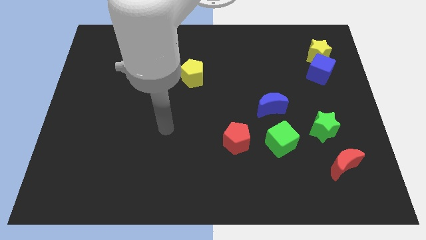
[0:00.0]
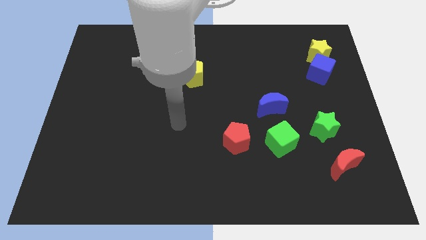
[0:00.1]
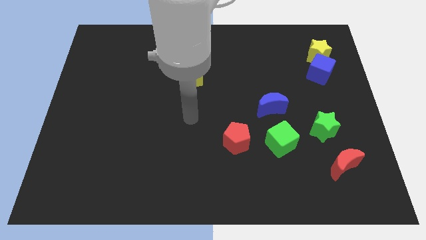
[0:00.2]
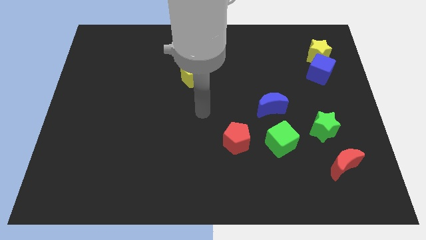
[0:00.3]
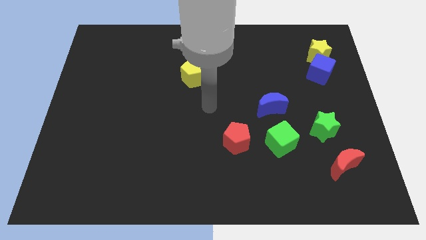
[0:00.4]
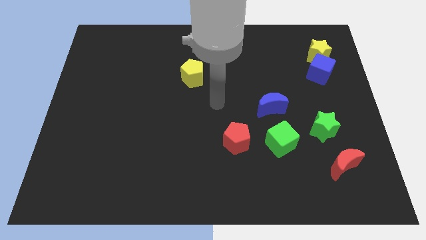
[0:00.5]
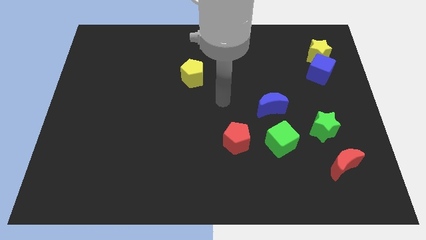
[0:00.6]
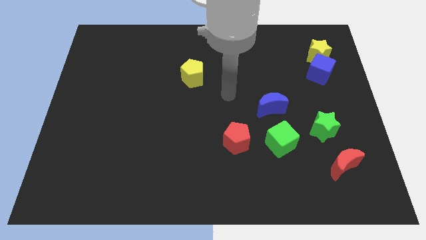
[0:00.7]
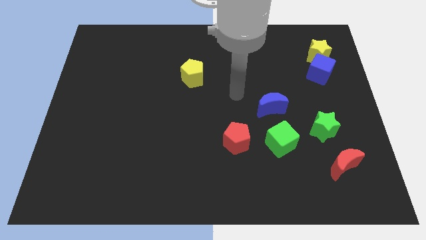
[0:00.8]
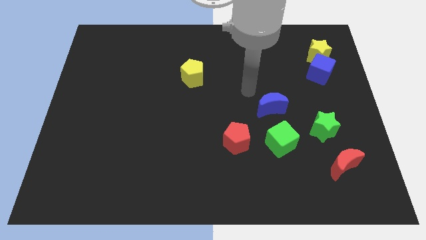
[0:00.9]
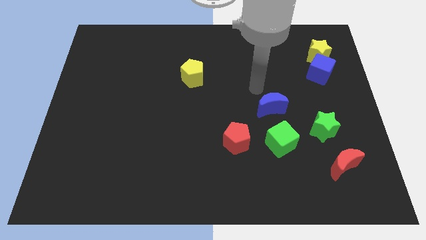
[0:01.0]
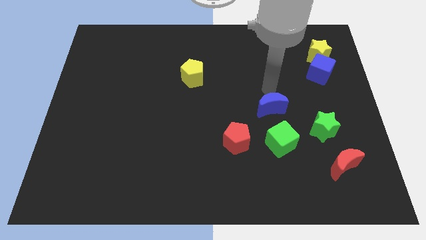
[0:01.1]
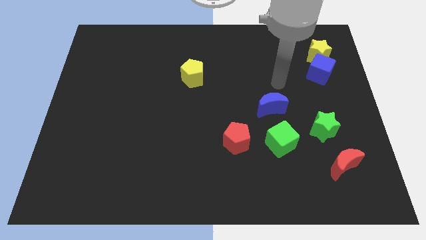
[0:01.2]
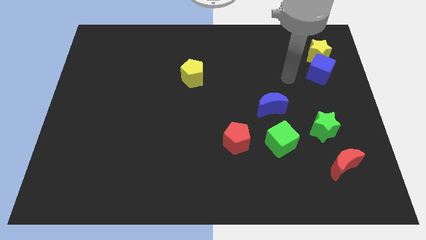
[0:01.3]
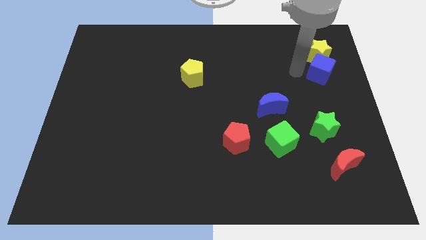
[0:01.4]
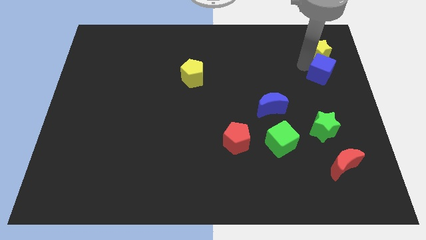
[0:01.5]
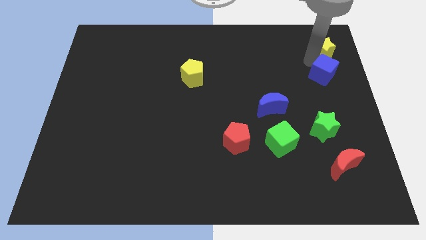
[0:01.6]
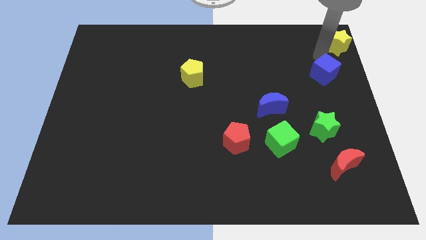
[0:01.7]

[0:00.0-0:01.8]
move the blue cube away from the yellow star

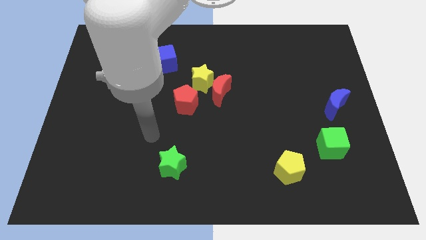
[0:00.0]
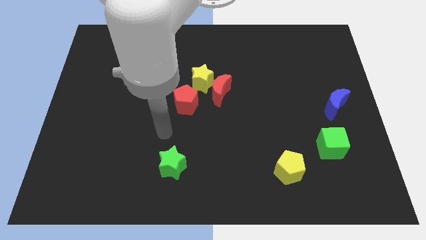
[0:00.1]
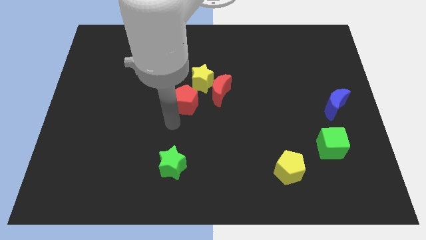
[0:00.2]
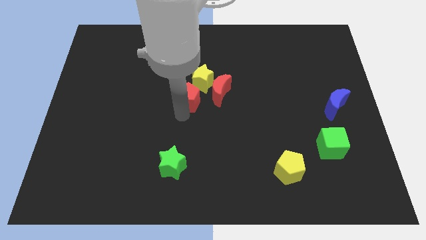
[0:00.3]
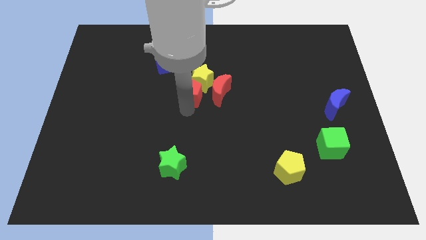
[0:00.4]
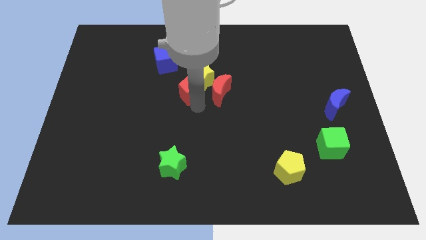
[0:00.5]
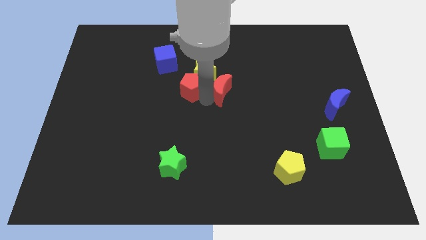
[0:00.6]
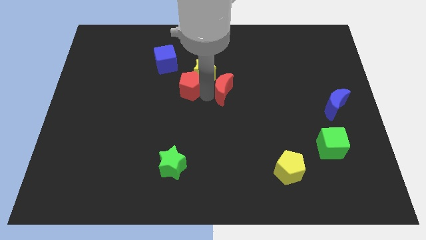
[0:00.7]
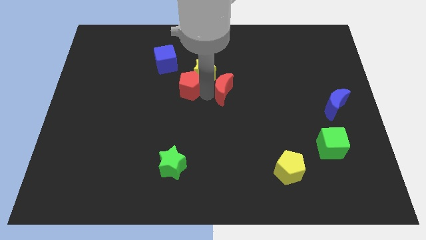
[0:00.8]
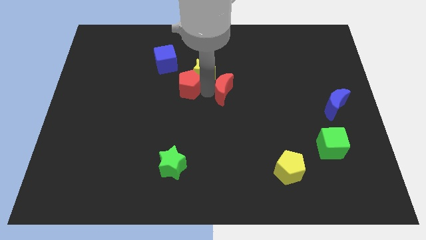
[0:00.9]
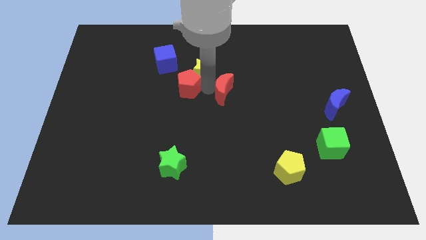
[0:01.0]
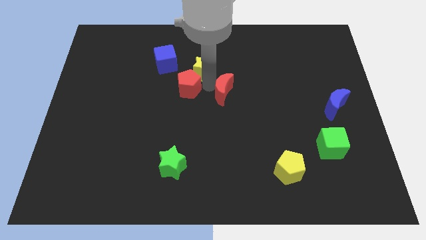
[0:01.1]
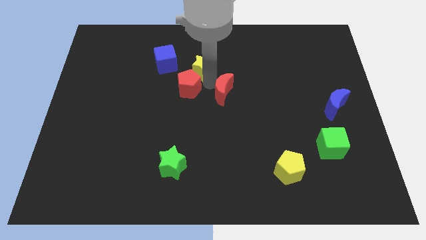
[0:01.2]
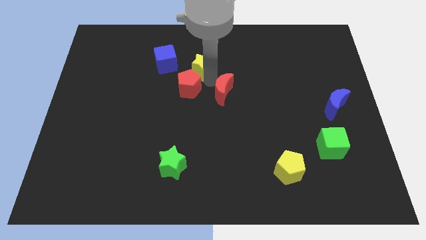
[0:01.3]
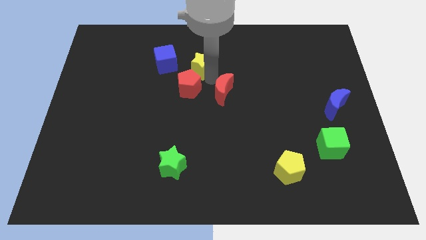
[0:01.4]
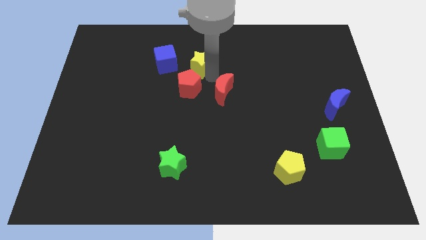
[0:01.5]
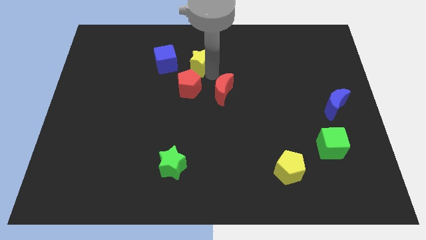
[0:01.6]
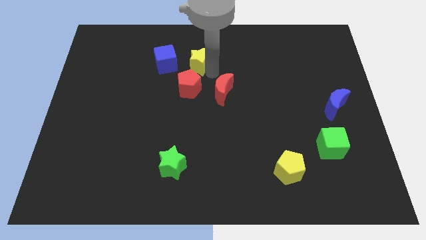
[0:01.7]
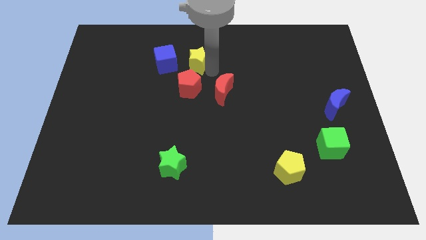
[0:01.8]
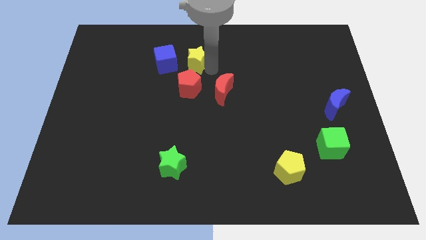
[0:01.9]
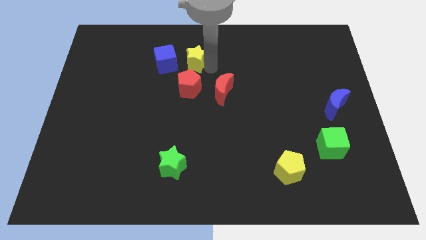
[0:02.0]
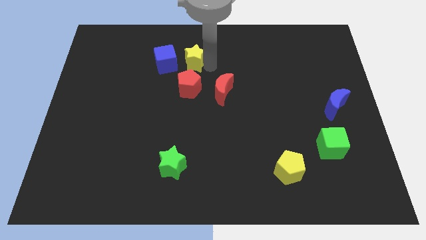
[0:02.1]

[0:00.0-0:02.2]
separate the yellow star from the red moon and red pentagon

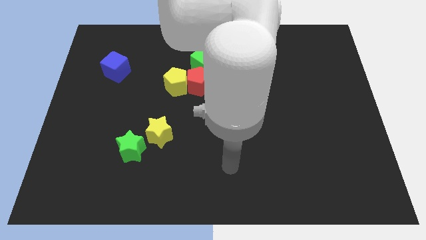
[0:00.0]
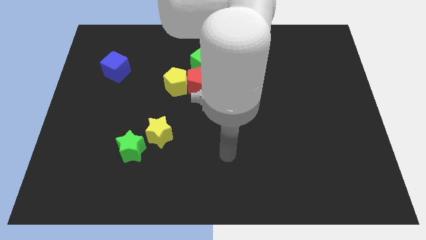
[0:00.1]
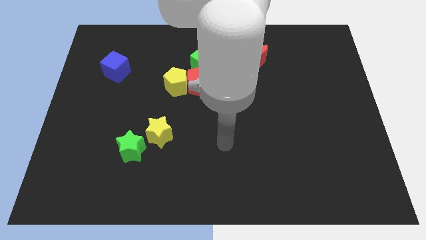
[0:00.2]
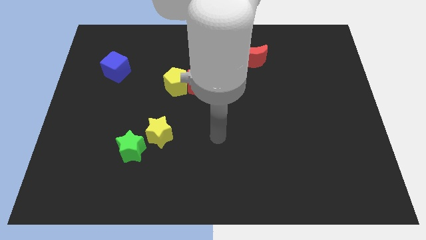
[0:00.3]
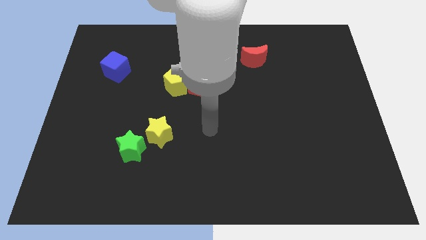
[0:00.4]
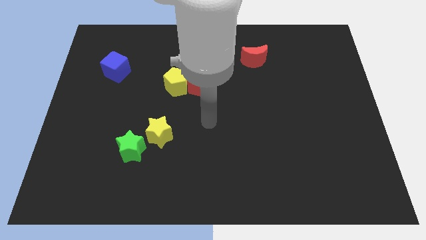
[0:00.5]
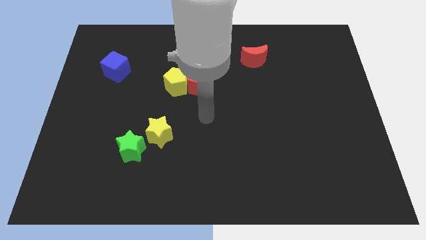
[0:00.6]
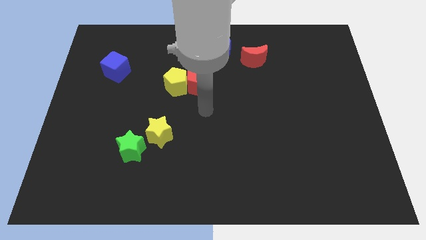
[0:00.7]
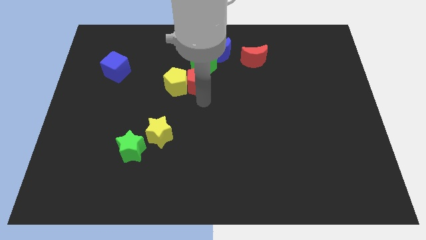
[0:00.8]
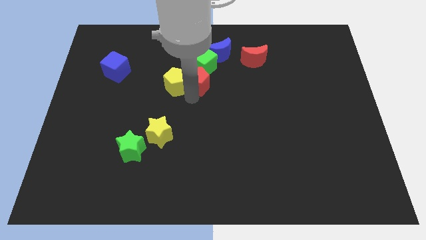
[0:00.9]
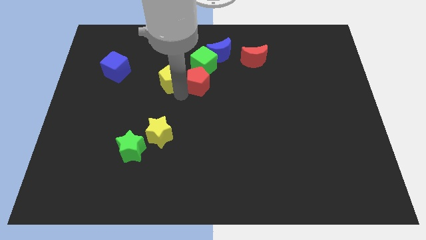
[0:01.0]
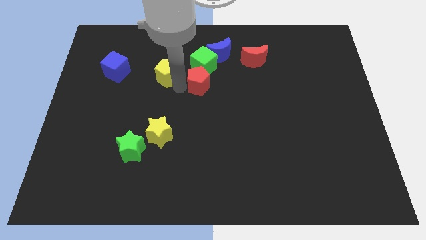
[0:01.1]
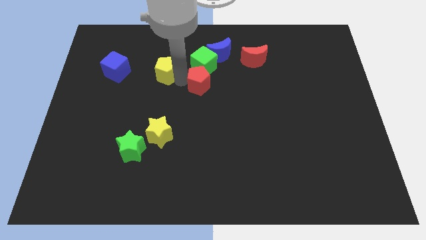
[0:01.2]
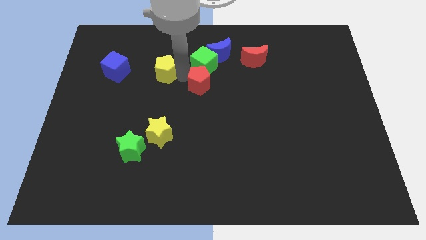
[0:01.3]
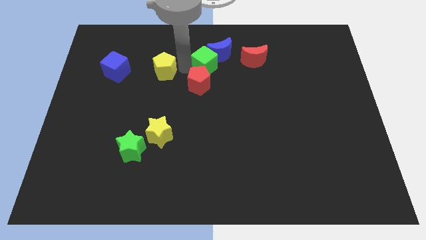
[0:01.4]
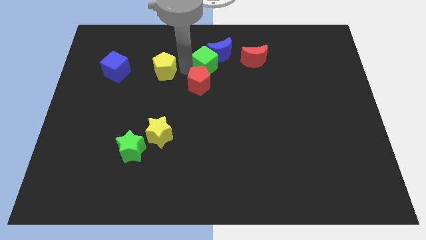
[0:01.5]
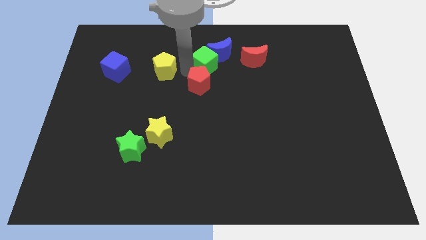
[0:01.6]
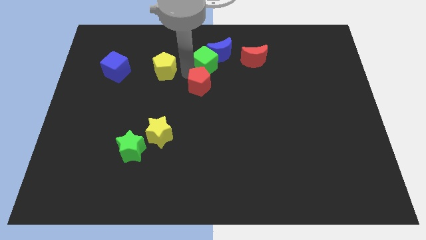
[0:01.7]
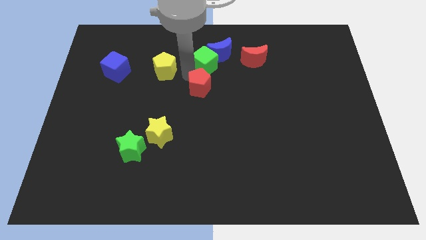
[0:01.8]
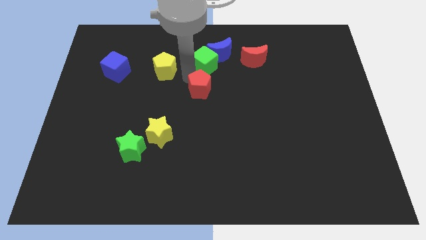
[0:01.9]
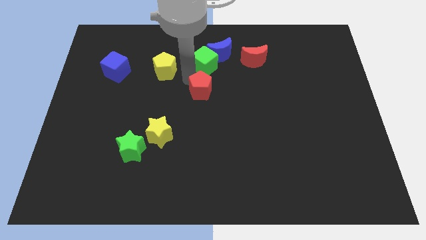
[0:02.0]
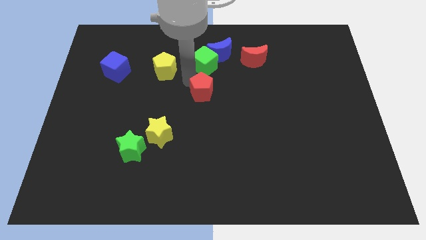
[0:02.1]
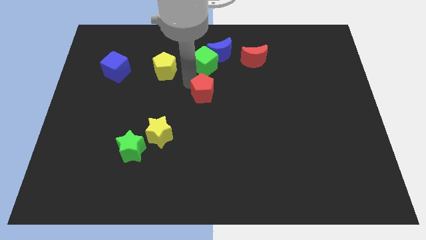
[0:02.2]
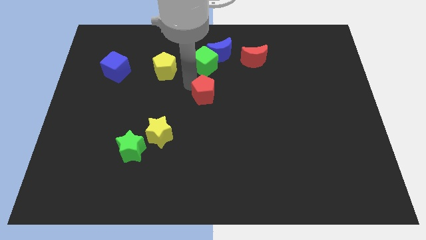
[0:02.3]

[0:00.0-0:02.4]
separate the red pentagon from the yellow pentagon and green cube

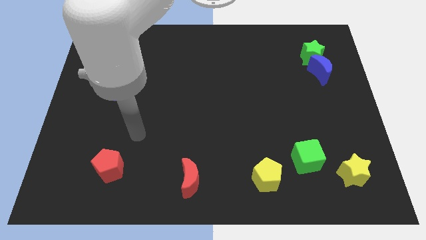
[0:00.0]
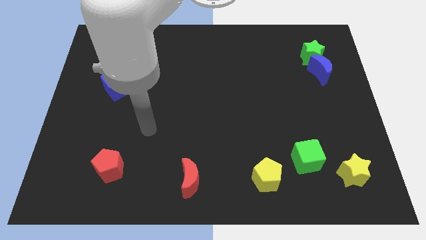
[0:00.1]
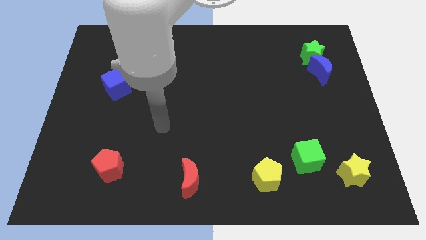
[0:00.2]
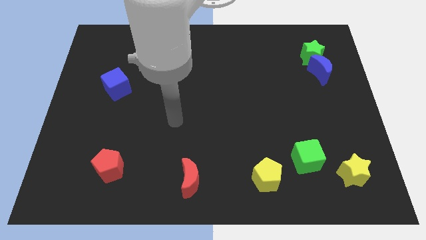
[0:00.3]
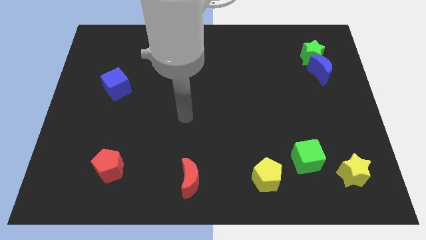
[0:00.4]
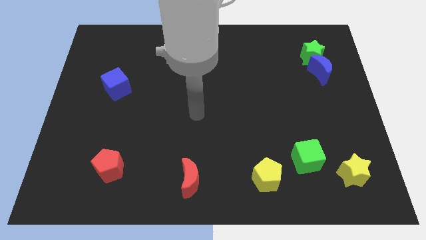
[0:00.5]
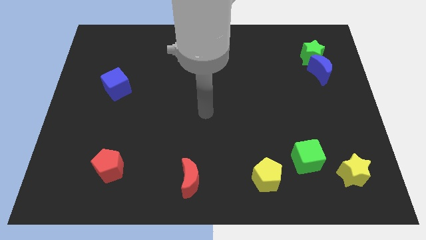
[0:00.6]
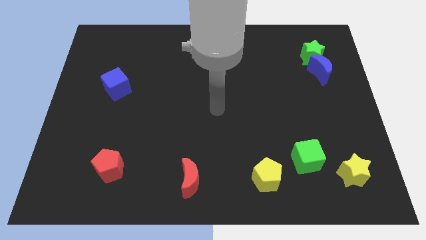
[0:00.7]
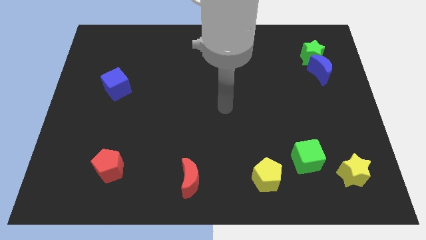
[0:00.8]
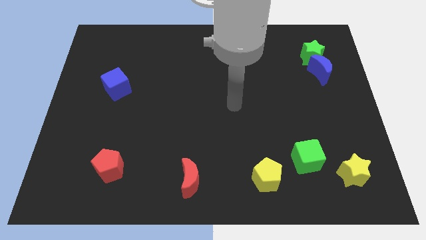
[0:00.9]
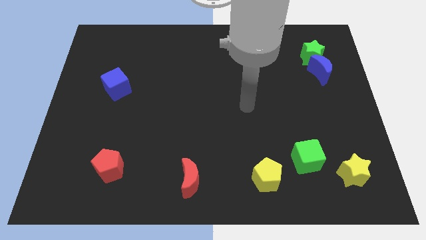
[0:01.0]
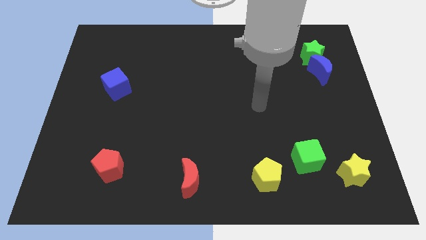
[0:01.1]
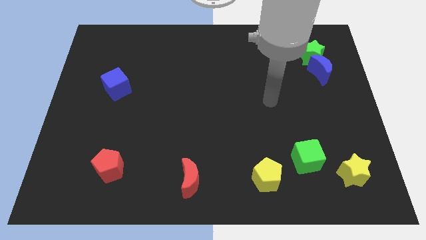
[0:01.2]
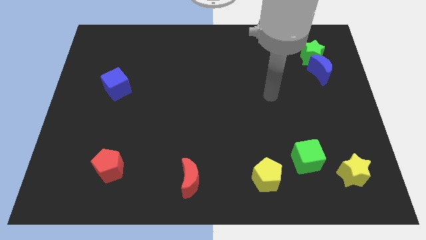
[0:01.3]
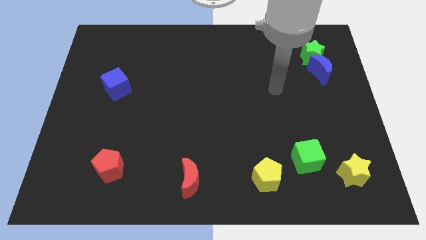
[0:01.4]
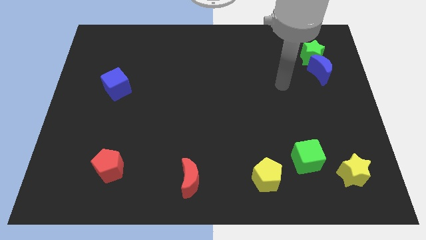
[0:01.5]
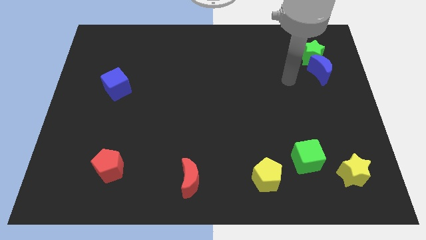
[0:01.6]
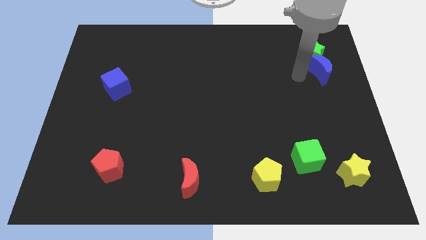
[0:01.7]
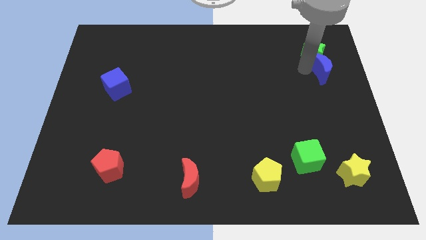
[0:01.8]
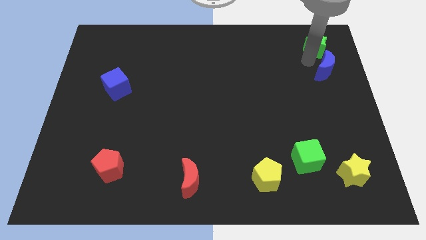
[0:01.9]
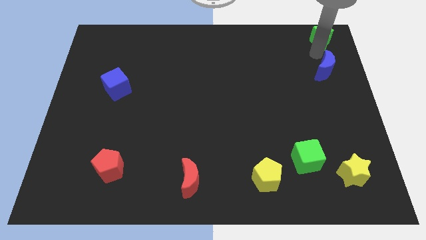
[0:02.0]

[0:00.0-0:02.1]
separate the blue moon from the green star

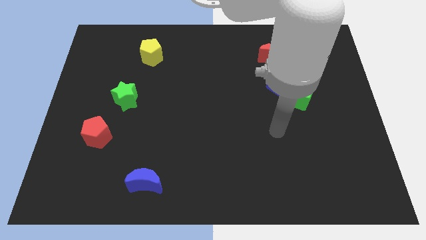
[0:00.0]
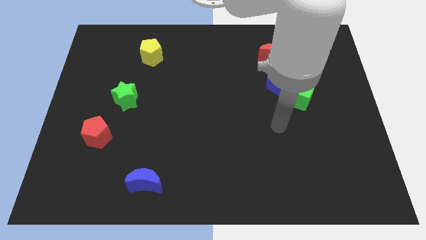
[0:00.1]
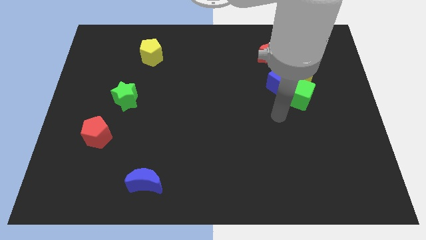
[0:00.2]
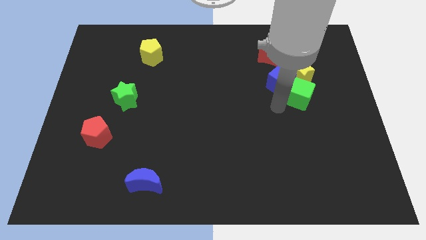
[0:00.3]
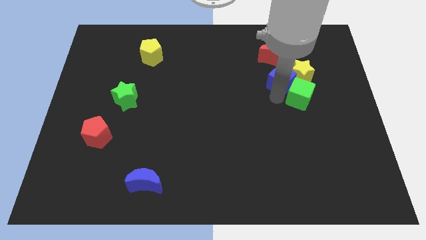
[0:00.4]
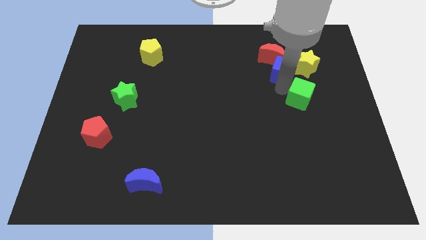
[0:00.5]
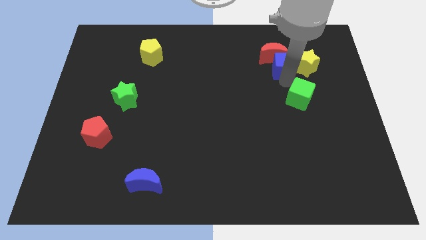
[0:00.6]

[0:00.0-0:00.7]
separate the green cube from the blue cube and yellow star
